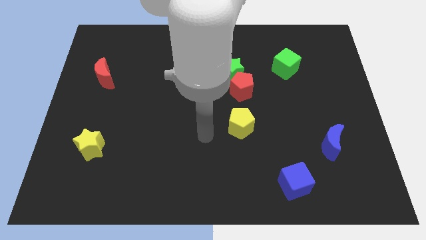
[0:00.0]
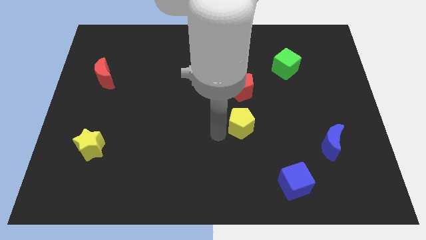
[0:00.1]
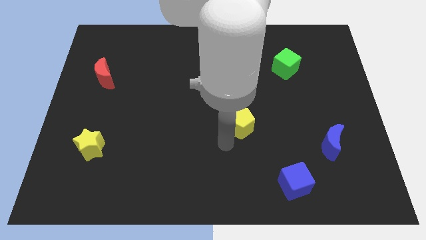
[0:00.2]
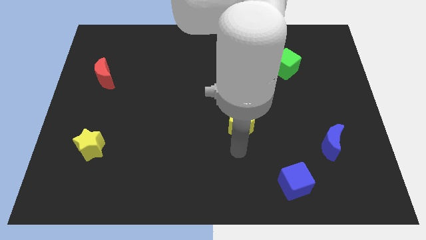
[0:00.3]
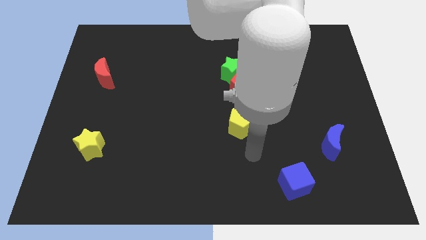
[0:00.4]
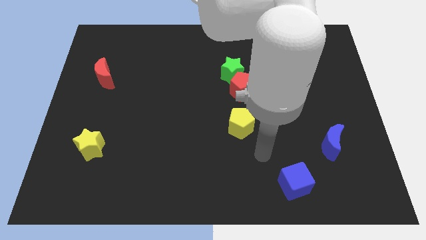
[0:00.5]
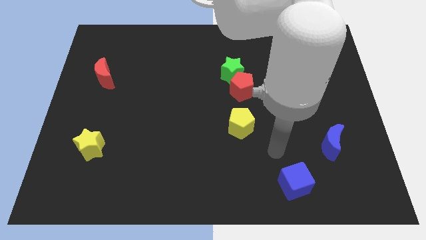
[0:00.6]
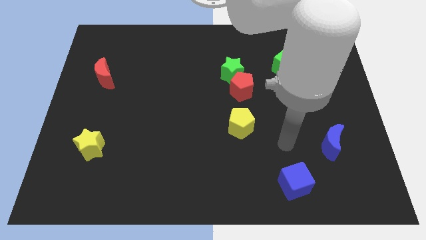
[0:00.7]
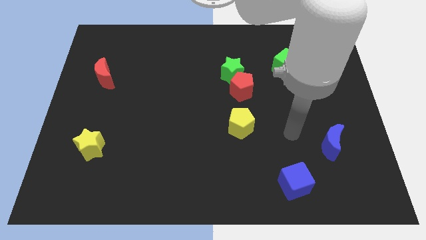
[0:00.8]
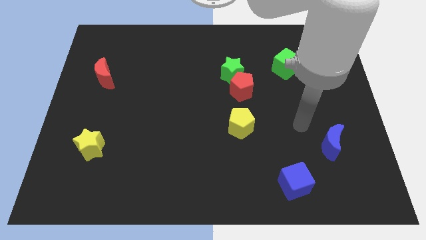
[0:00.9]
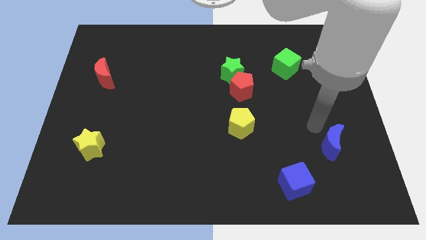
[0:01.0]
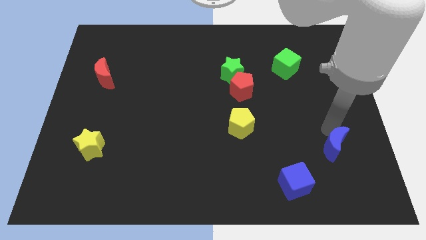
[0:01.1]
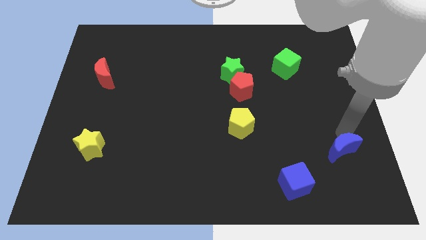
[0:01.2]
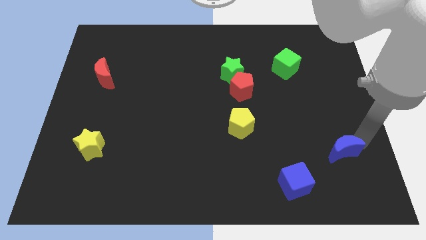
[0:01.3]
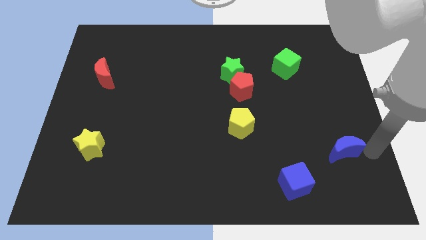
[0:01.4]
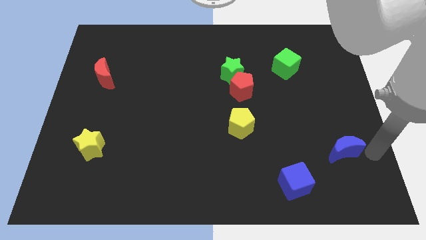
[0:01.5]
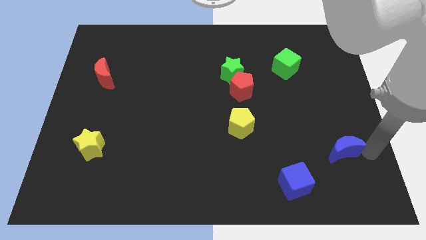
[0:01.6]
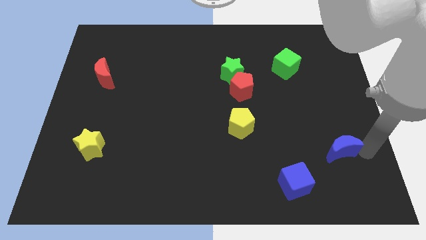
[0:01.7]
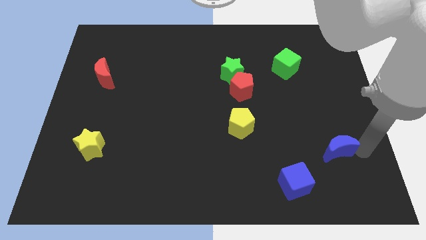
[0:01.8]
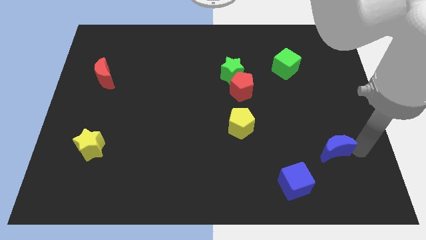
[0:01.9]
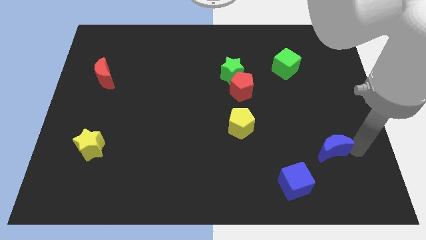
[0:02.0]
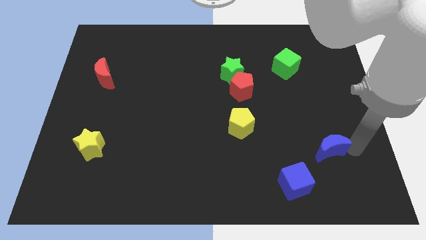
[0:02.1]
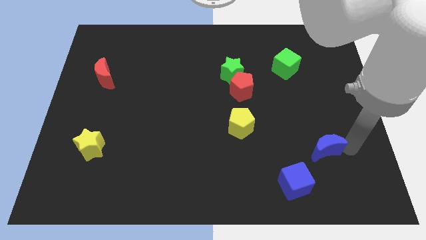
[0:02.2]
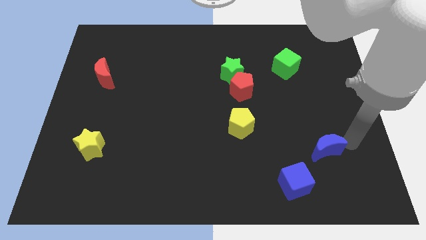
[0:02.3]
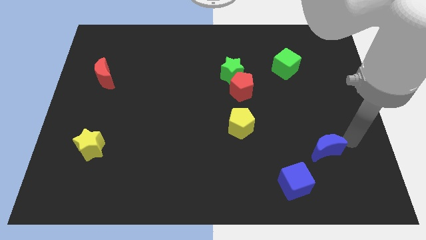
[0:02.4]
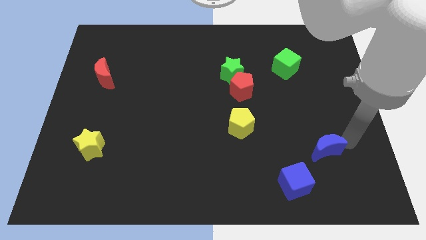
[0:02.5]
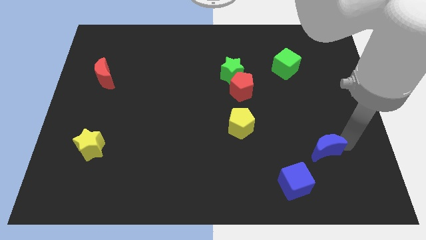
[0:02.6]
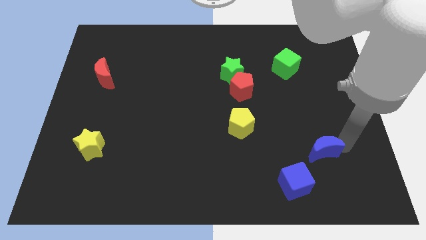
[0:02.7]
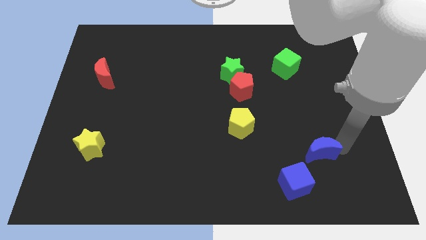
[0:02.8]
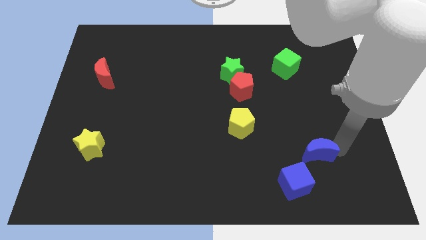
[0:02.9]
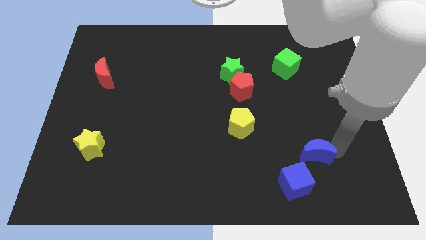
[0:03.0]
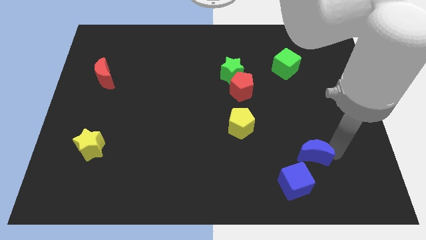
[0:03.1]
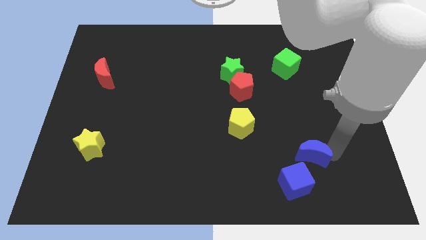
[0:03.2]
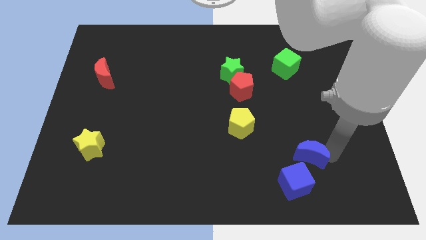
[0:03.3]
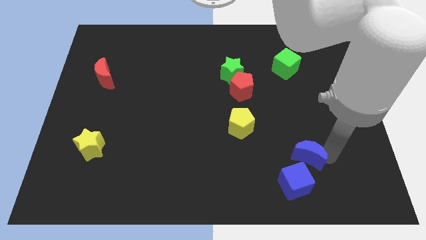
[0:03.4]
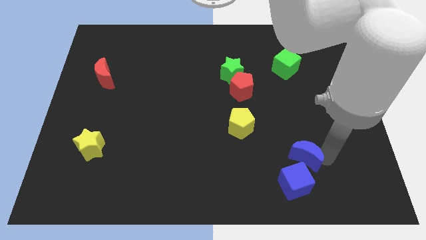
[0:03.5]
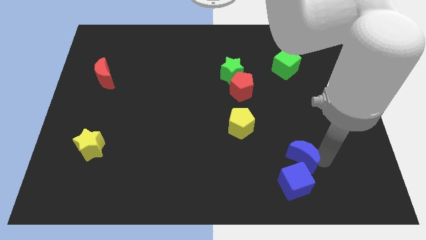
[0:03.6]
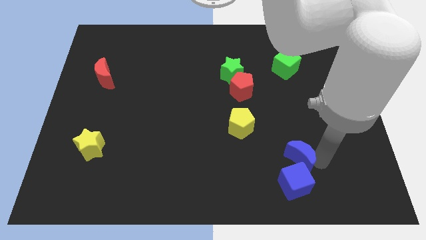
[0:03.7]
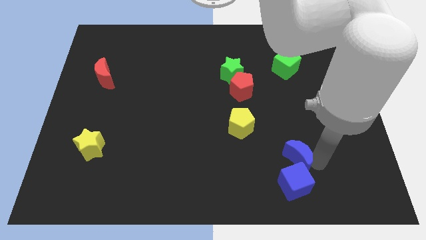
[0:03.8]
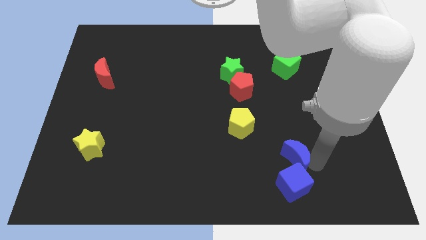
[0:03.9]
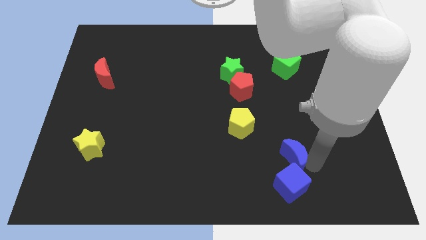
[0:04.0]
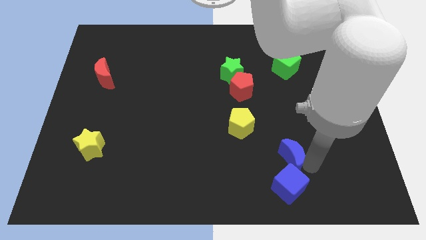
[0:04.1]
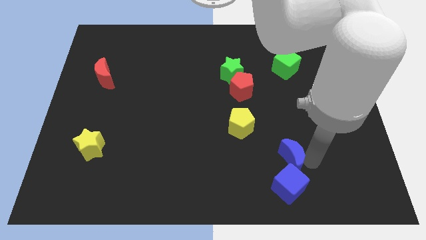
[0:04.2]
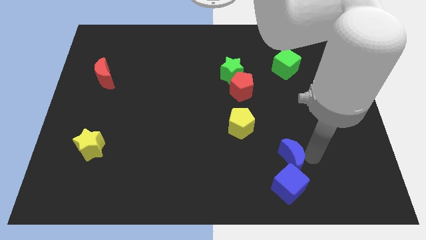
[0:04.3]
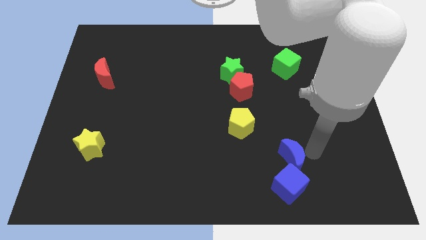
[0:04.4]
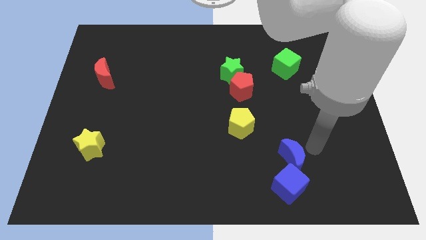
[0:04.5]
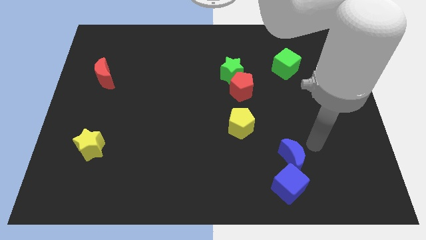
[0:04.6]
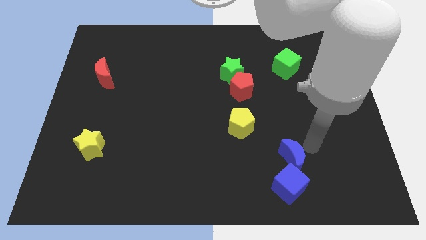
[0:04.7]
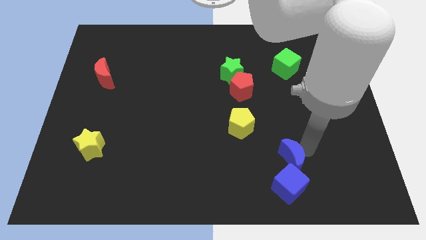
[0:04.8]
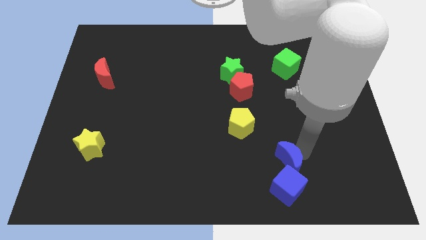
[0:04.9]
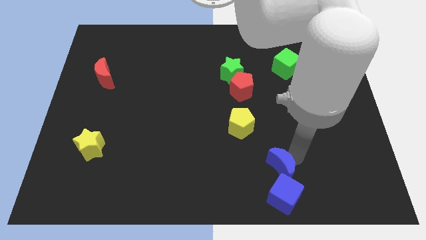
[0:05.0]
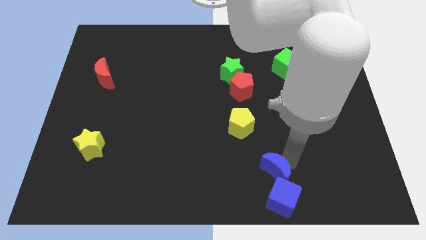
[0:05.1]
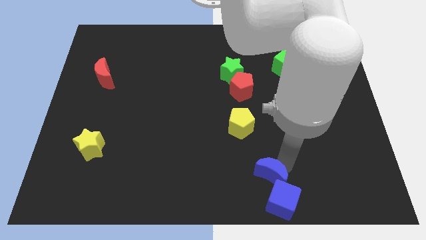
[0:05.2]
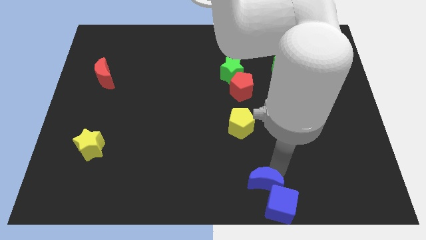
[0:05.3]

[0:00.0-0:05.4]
slide the blue moon to the bottom

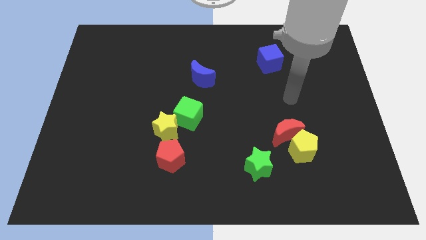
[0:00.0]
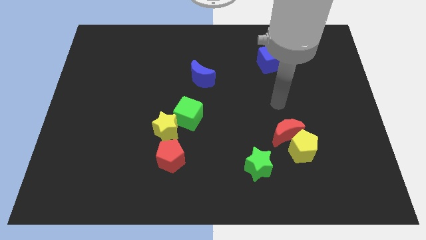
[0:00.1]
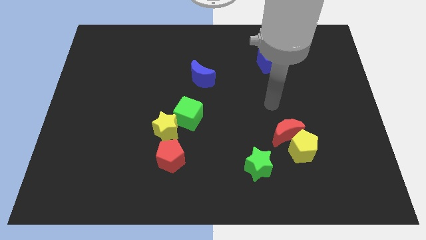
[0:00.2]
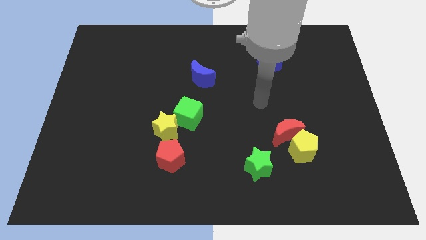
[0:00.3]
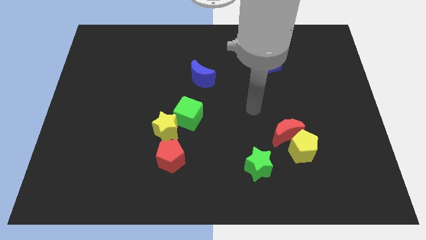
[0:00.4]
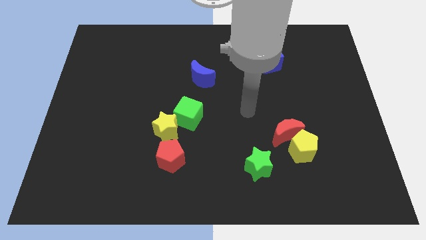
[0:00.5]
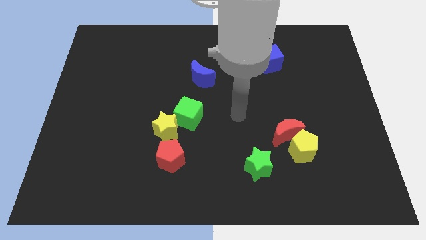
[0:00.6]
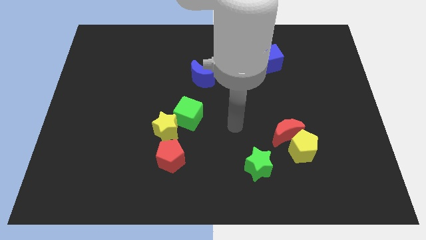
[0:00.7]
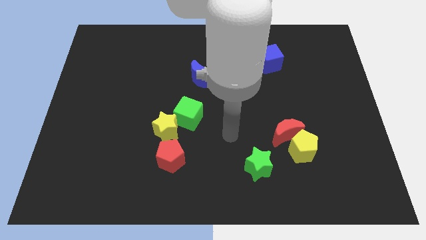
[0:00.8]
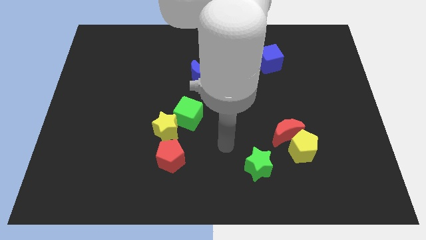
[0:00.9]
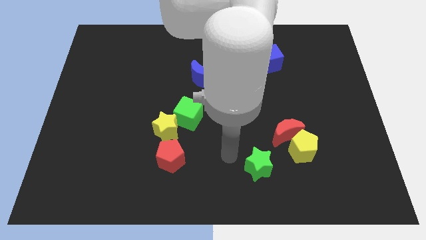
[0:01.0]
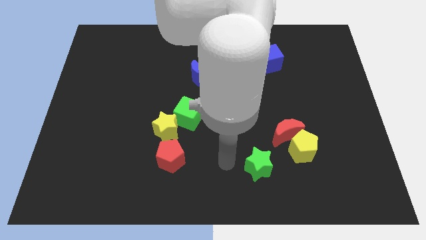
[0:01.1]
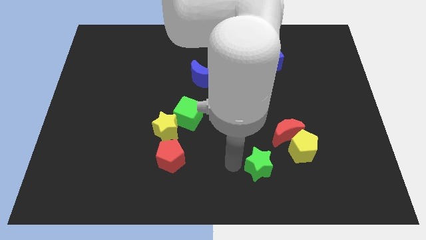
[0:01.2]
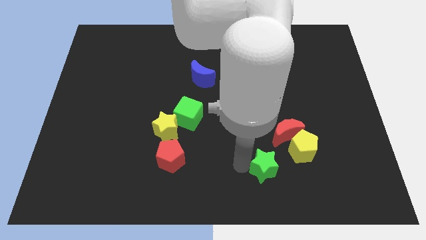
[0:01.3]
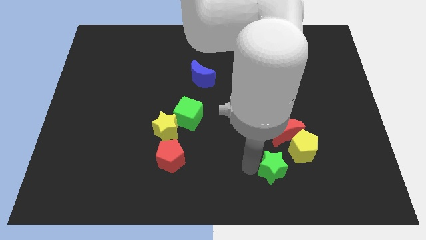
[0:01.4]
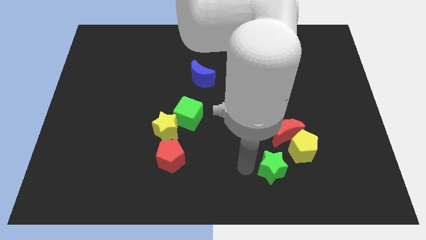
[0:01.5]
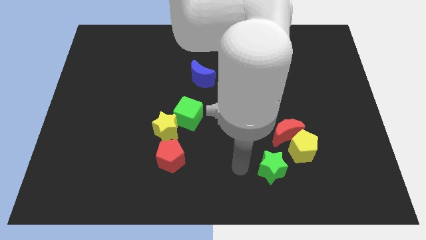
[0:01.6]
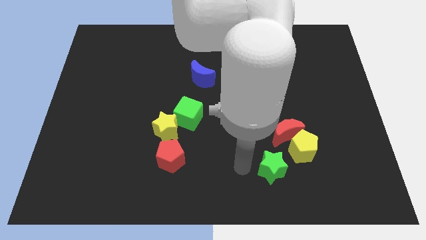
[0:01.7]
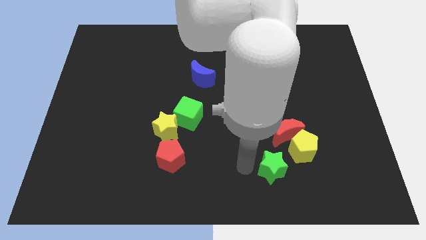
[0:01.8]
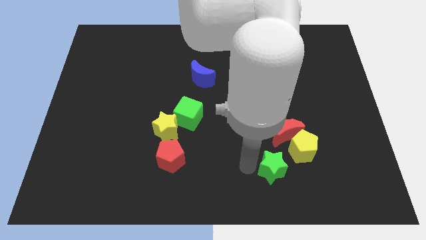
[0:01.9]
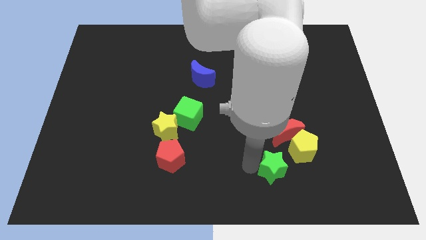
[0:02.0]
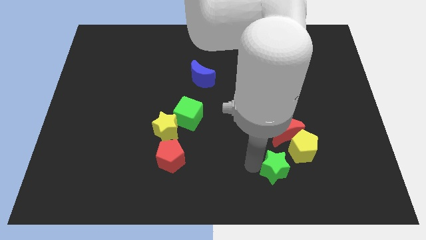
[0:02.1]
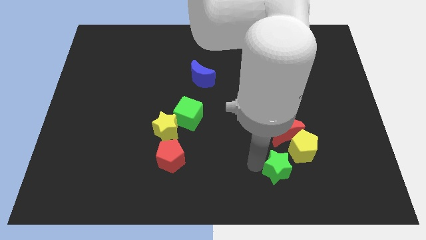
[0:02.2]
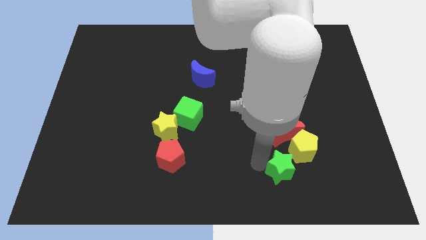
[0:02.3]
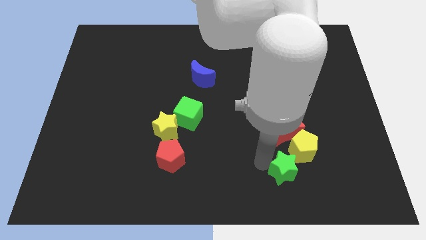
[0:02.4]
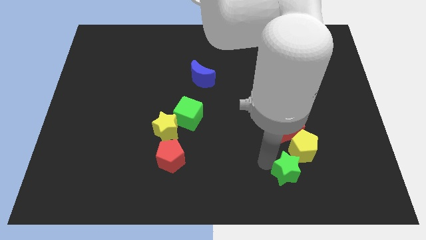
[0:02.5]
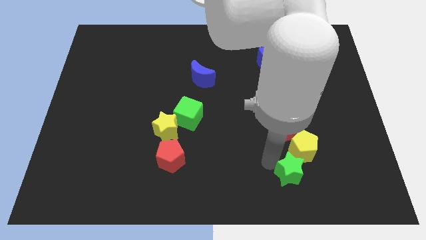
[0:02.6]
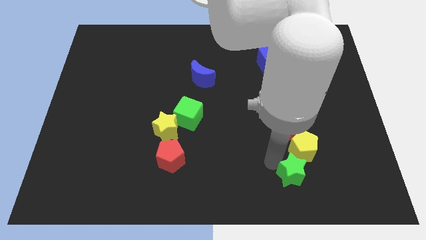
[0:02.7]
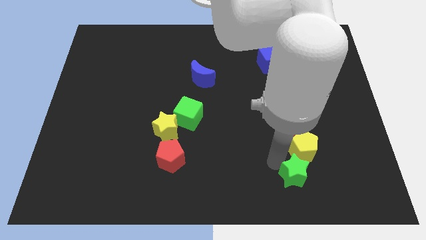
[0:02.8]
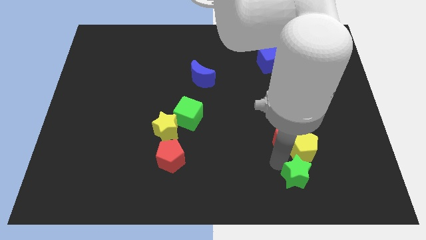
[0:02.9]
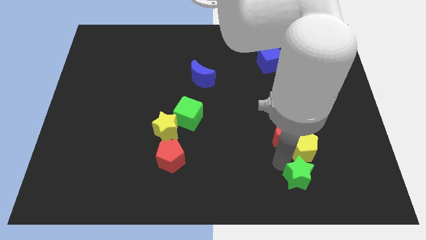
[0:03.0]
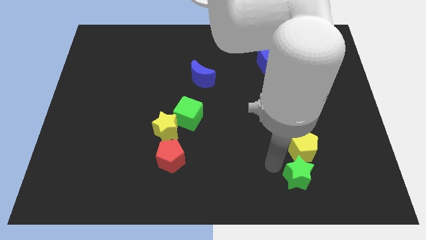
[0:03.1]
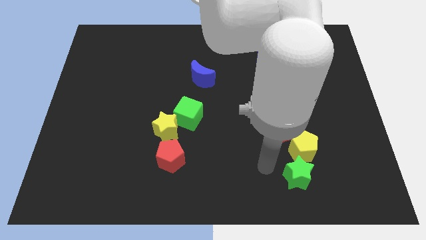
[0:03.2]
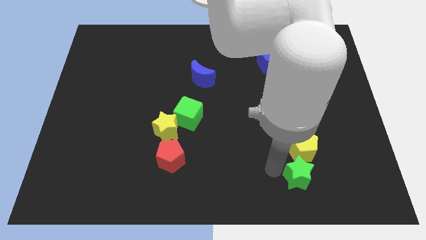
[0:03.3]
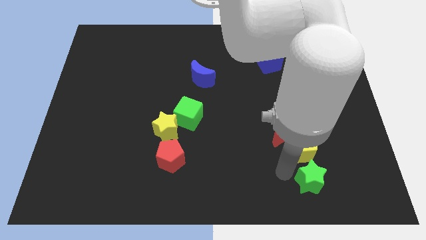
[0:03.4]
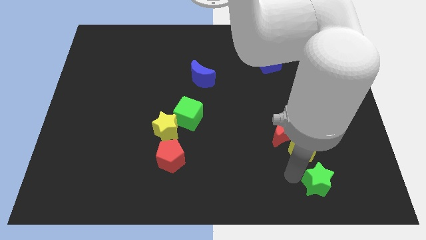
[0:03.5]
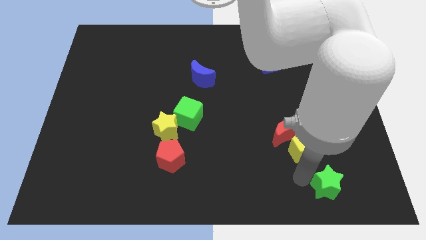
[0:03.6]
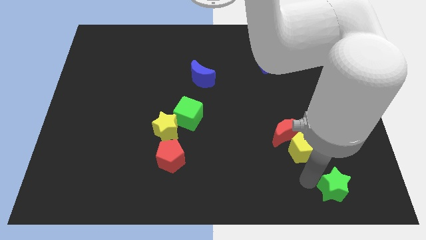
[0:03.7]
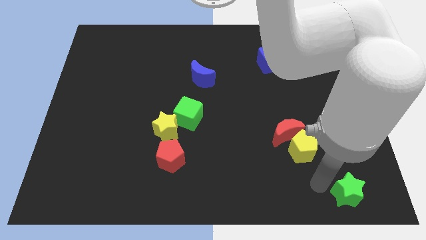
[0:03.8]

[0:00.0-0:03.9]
push the green star to the bottom right of the board
